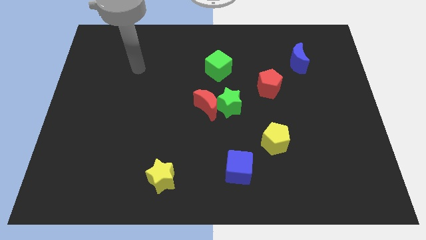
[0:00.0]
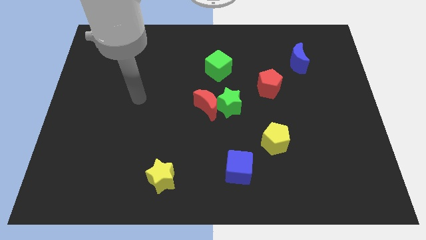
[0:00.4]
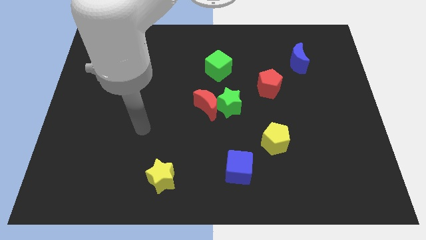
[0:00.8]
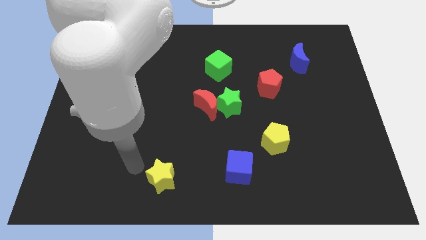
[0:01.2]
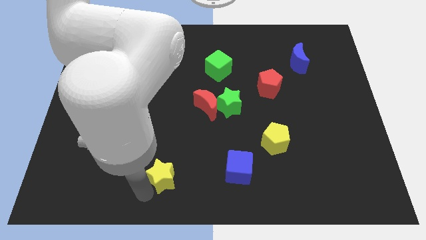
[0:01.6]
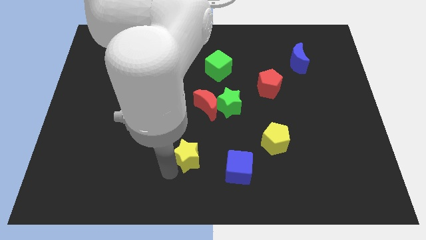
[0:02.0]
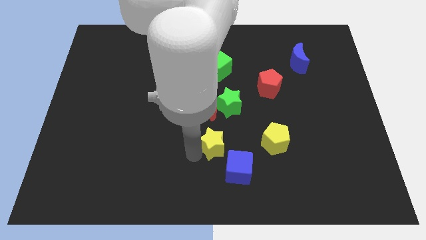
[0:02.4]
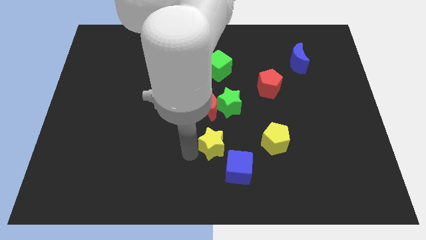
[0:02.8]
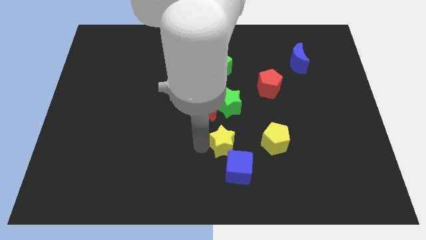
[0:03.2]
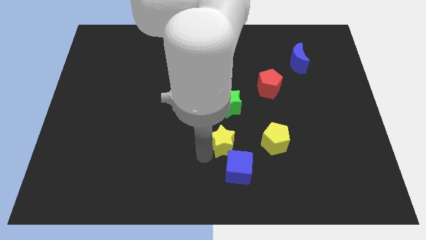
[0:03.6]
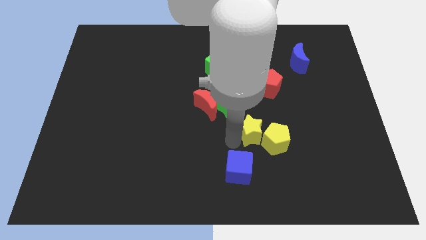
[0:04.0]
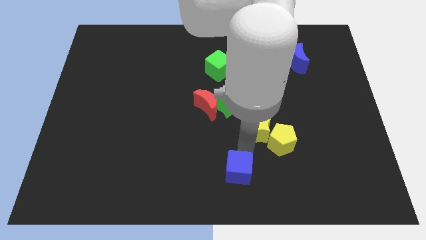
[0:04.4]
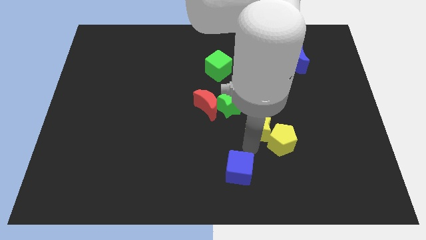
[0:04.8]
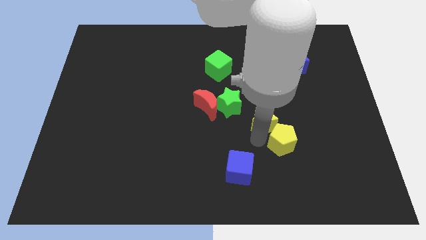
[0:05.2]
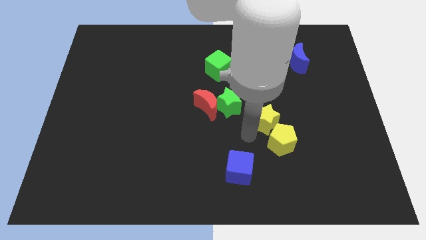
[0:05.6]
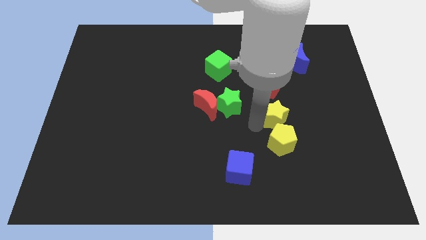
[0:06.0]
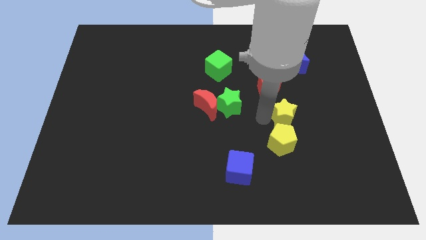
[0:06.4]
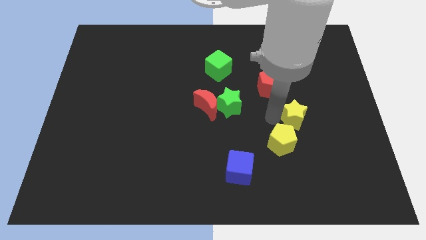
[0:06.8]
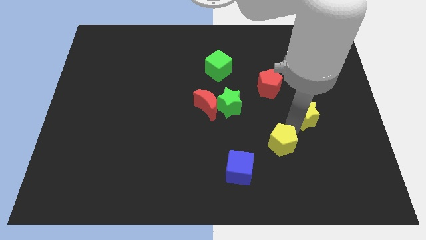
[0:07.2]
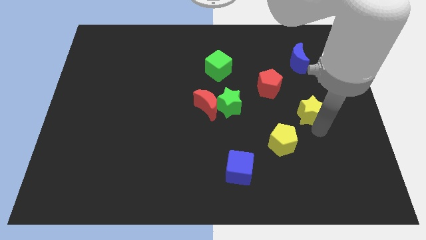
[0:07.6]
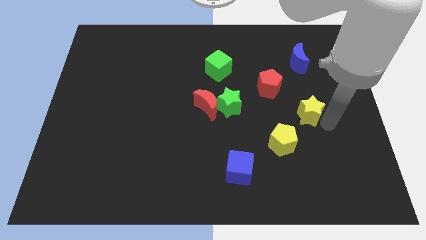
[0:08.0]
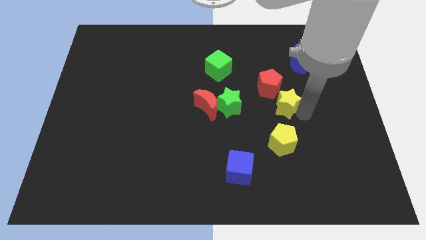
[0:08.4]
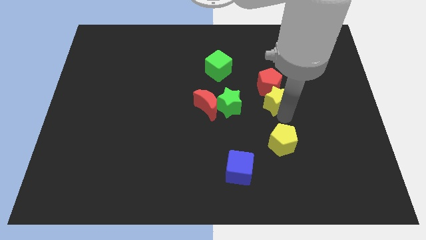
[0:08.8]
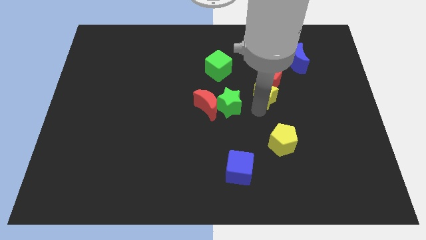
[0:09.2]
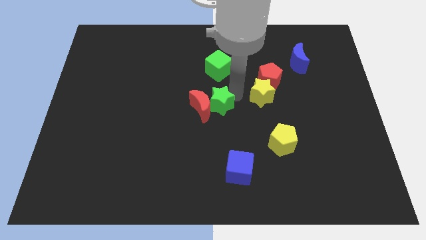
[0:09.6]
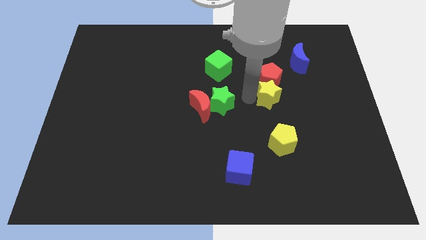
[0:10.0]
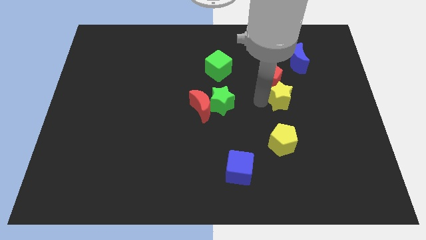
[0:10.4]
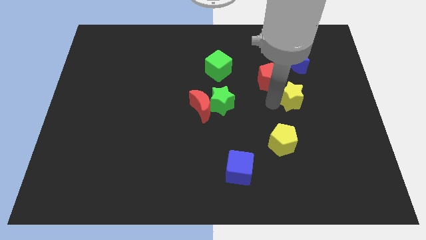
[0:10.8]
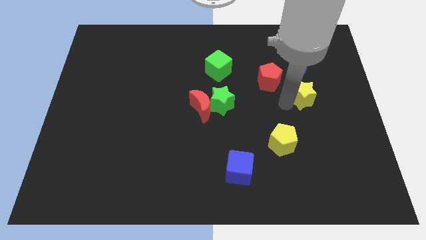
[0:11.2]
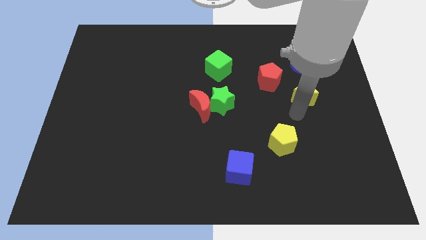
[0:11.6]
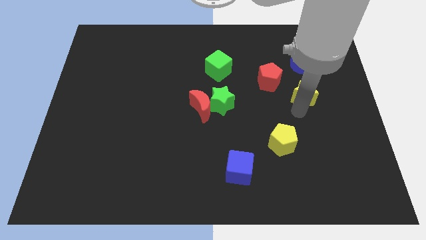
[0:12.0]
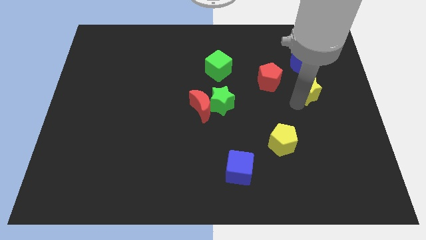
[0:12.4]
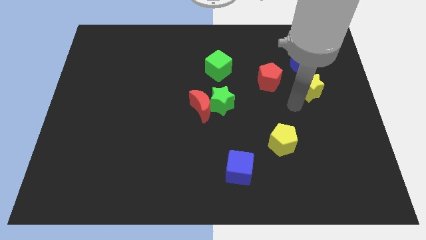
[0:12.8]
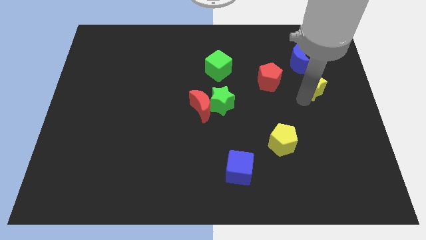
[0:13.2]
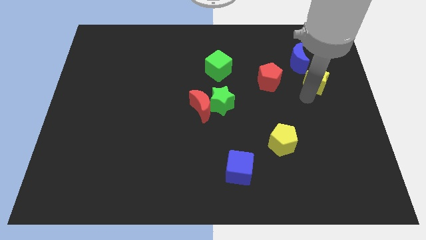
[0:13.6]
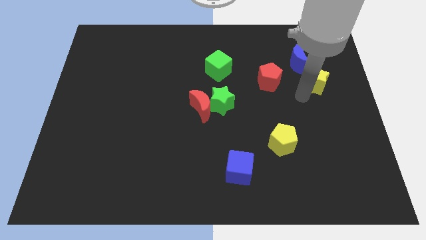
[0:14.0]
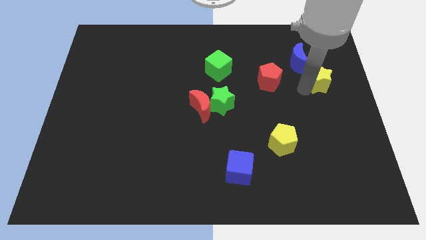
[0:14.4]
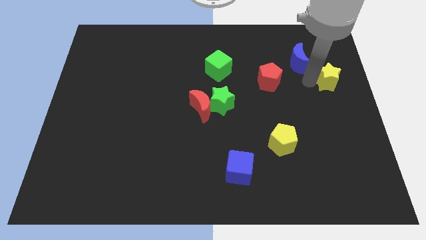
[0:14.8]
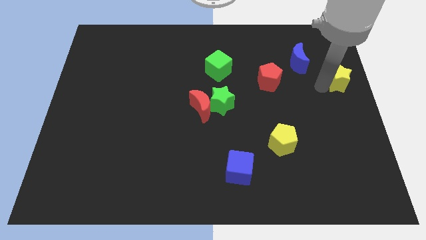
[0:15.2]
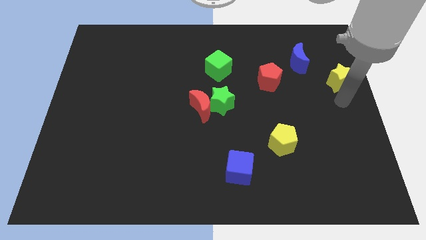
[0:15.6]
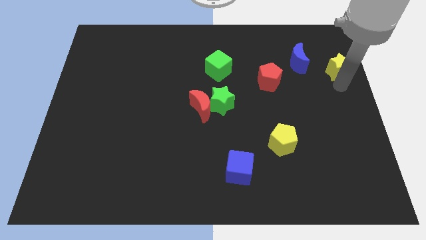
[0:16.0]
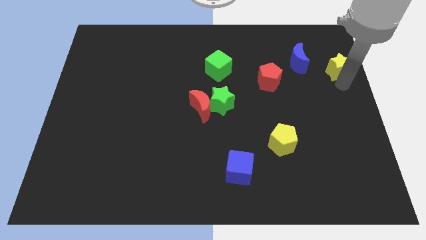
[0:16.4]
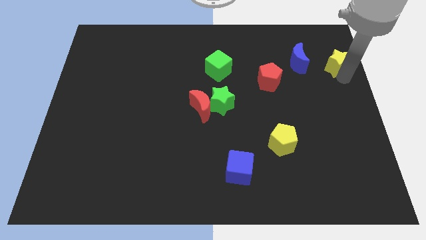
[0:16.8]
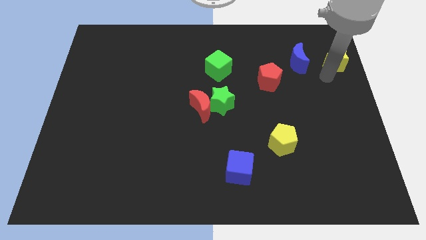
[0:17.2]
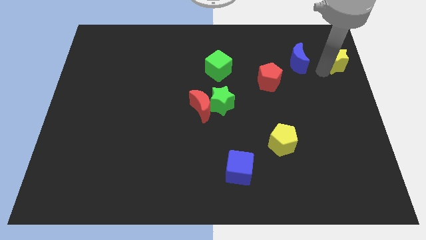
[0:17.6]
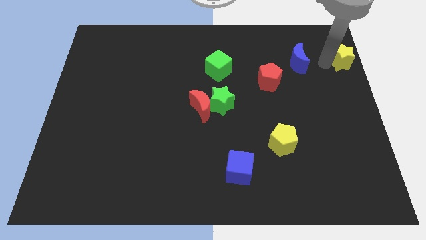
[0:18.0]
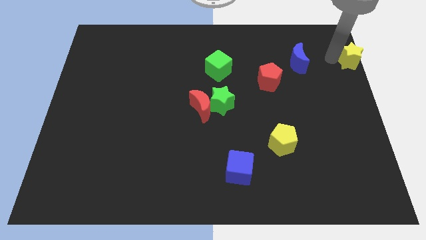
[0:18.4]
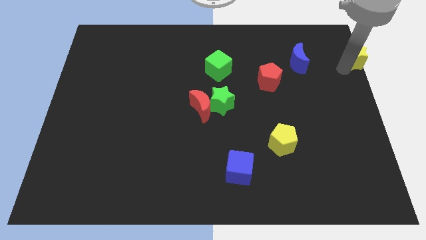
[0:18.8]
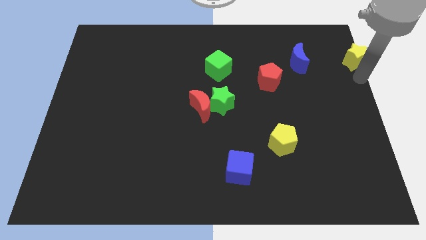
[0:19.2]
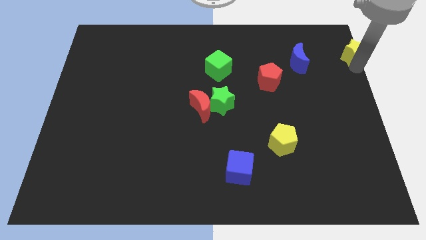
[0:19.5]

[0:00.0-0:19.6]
slide the yellow star to the top right of the board

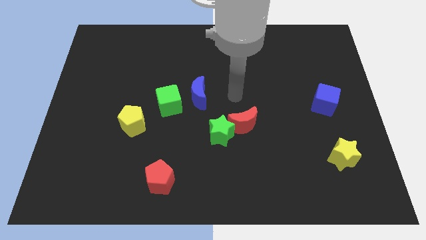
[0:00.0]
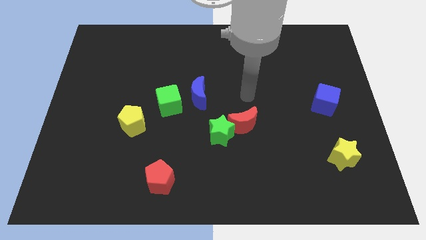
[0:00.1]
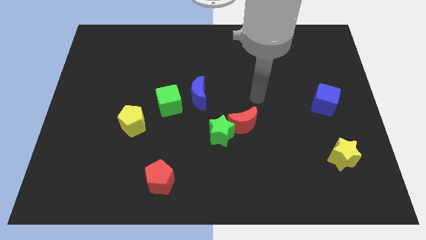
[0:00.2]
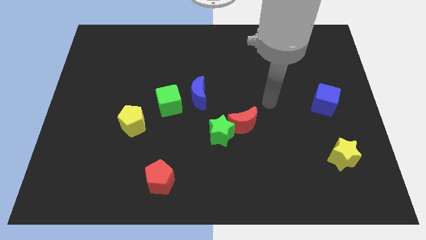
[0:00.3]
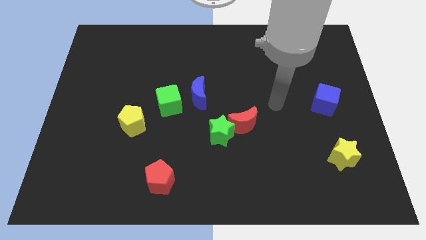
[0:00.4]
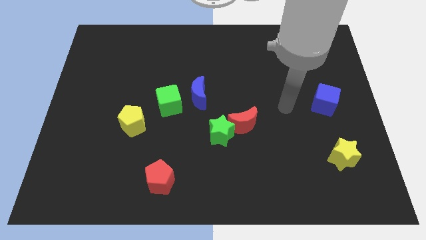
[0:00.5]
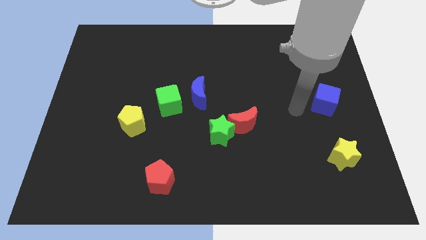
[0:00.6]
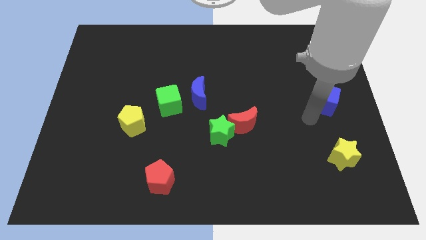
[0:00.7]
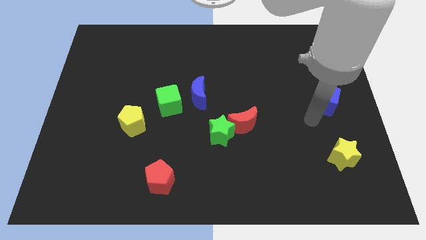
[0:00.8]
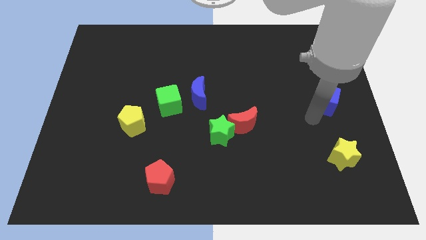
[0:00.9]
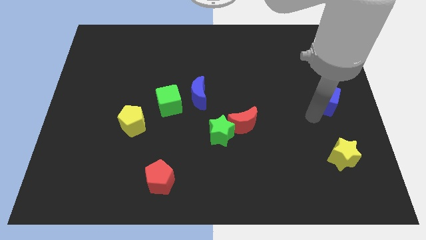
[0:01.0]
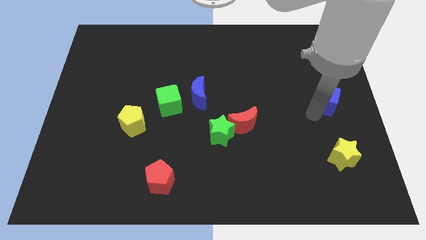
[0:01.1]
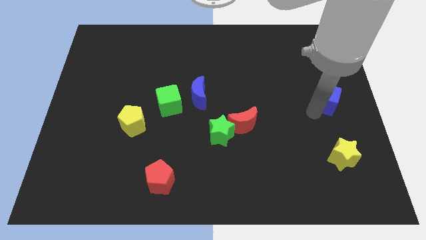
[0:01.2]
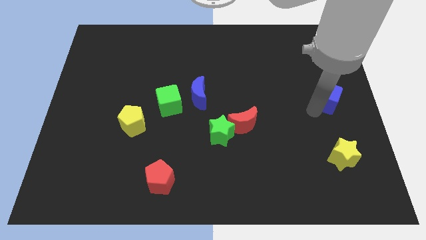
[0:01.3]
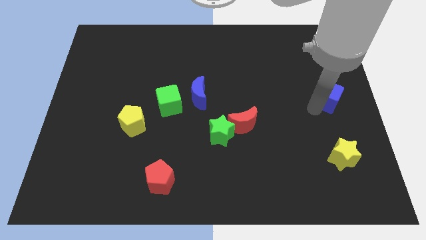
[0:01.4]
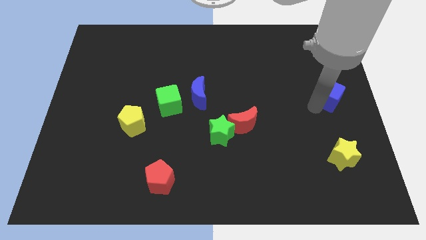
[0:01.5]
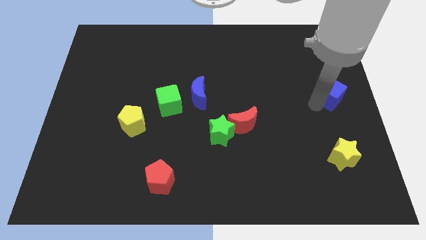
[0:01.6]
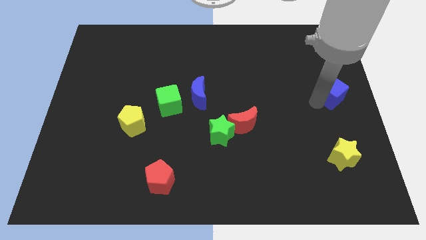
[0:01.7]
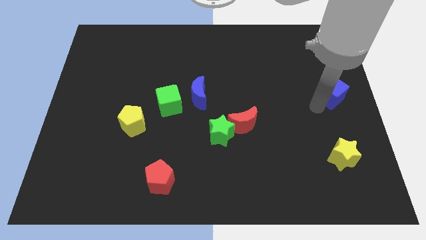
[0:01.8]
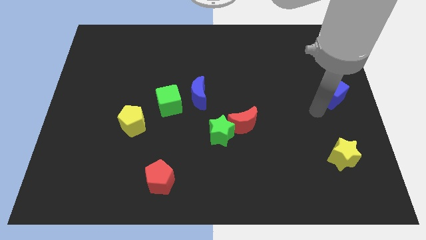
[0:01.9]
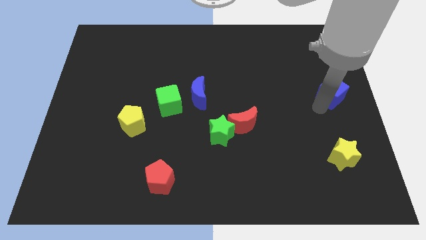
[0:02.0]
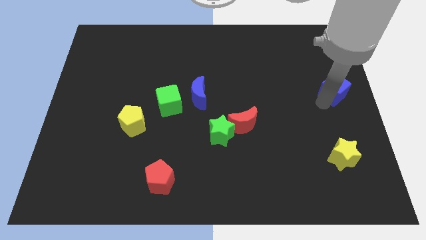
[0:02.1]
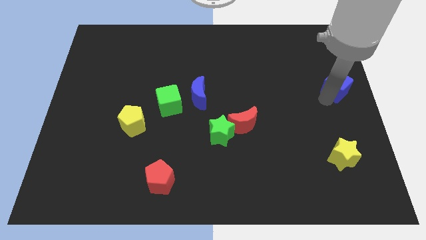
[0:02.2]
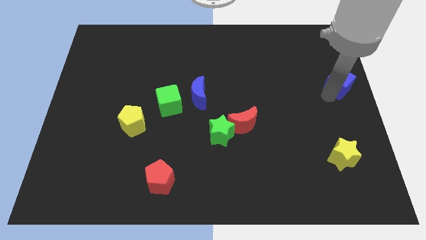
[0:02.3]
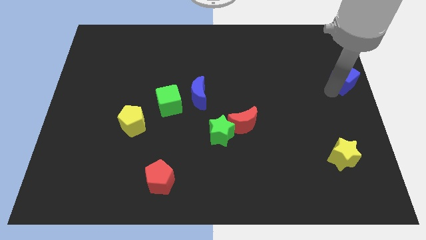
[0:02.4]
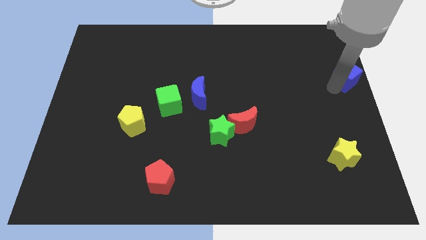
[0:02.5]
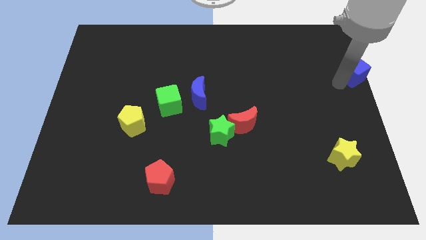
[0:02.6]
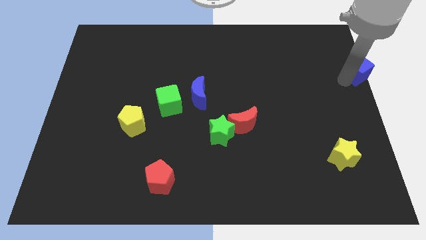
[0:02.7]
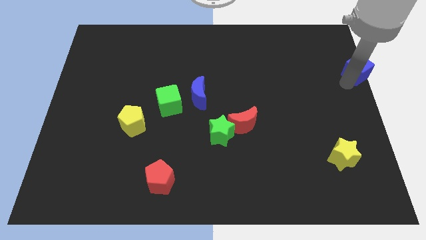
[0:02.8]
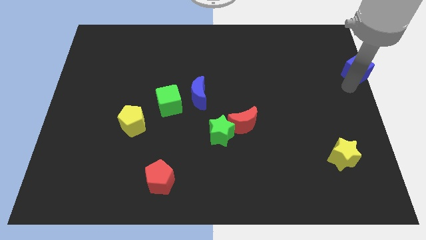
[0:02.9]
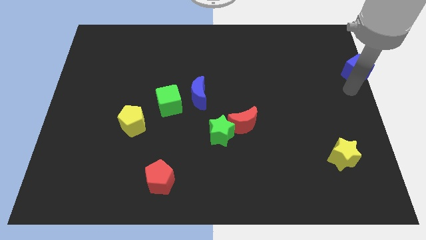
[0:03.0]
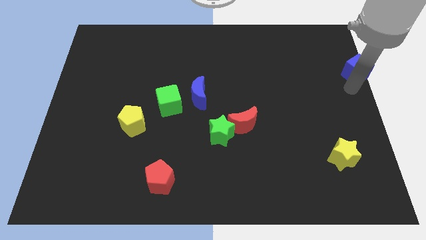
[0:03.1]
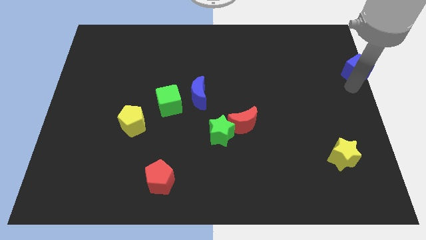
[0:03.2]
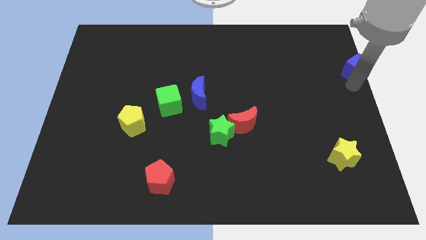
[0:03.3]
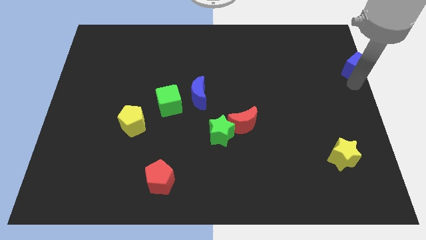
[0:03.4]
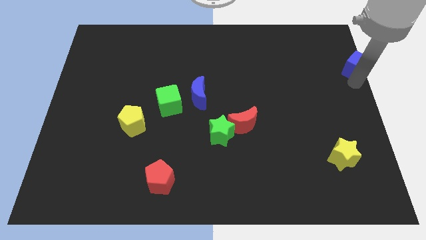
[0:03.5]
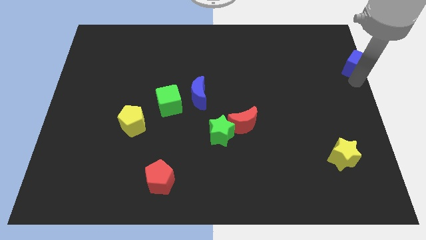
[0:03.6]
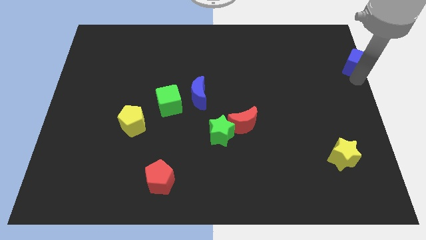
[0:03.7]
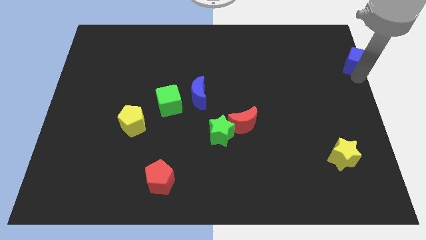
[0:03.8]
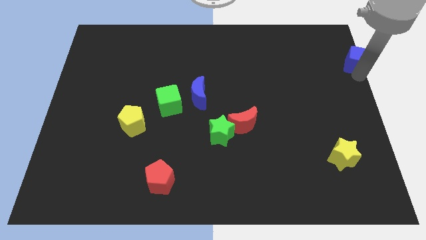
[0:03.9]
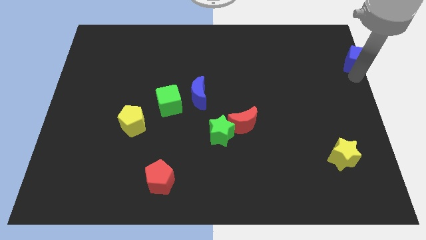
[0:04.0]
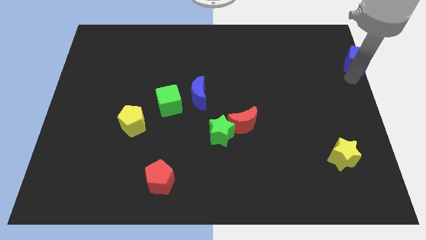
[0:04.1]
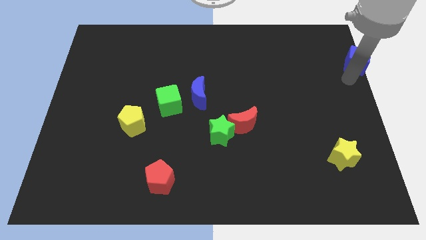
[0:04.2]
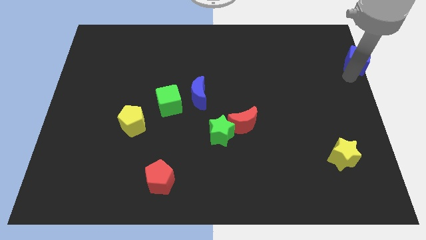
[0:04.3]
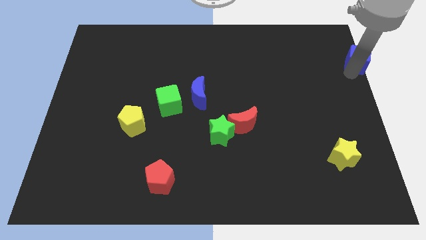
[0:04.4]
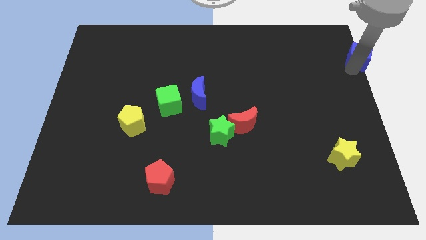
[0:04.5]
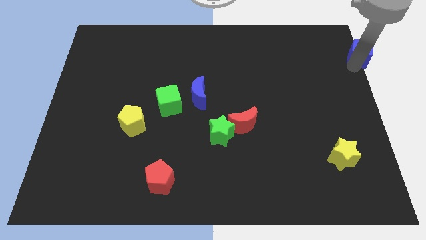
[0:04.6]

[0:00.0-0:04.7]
put the blue cube to the top right
